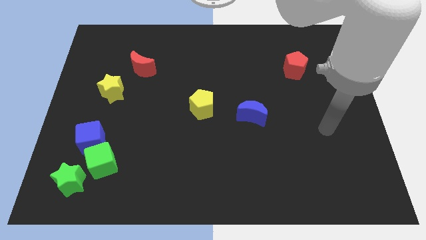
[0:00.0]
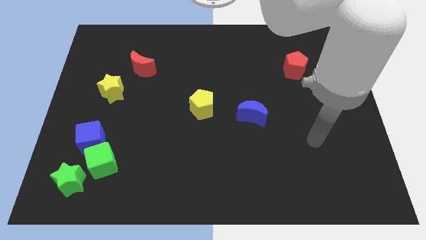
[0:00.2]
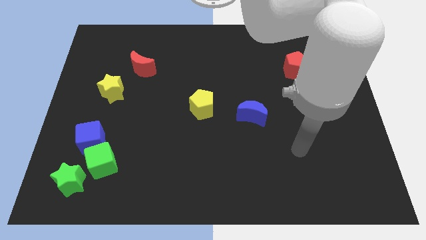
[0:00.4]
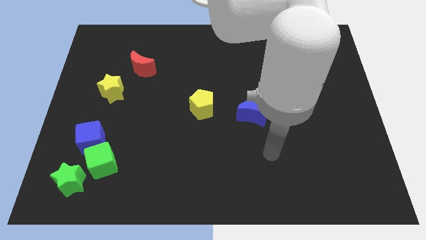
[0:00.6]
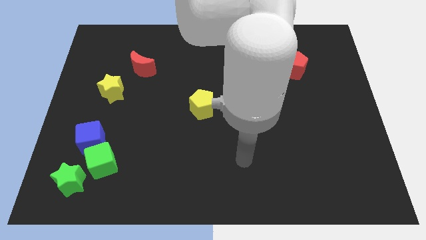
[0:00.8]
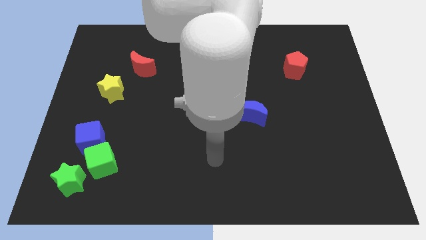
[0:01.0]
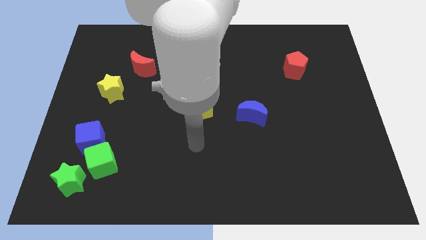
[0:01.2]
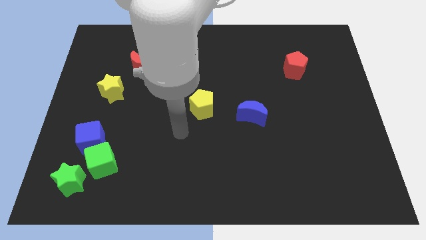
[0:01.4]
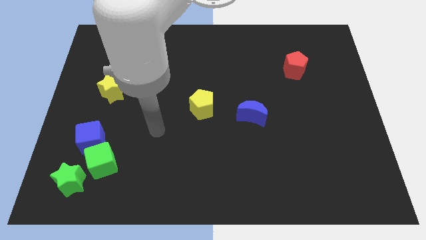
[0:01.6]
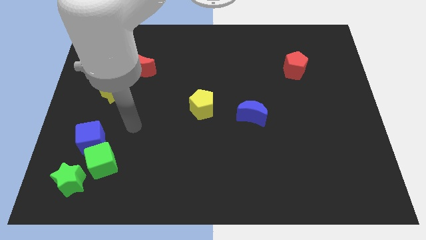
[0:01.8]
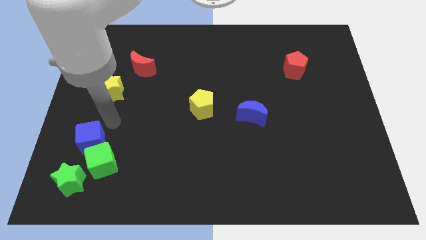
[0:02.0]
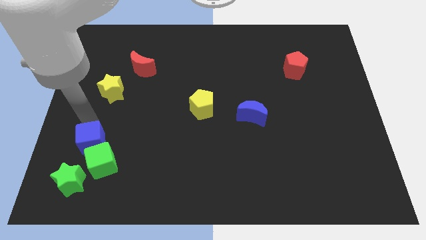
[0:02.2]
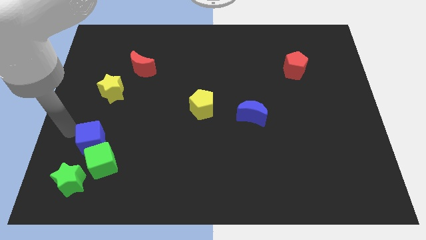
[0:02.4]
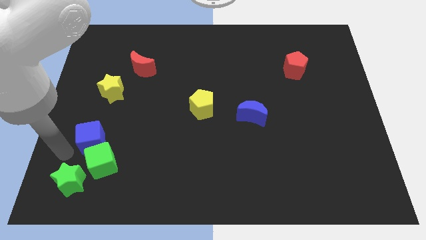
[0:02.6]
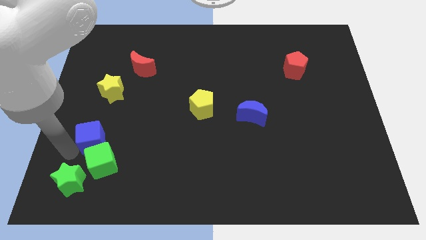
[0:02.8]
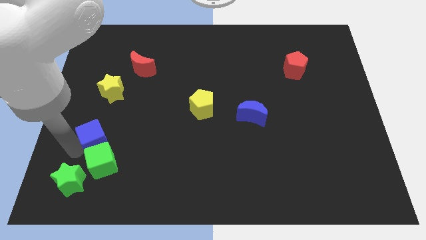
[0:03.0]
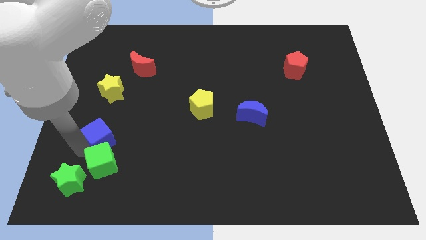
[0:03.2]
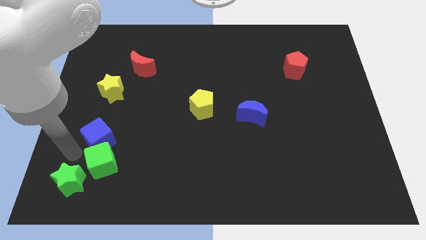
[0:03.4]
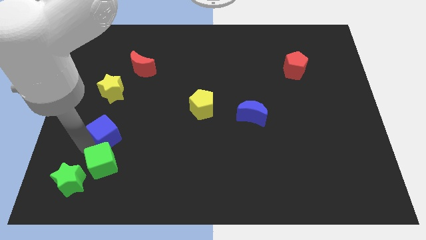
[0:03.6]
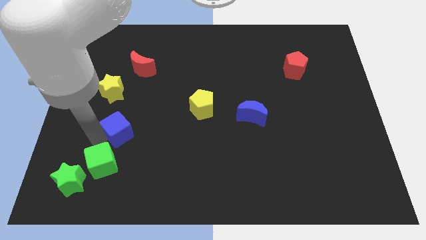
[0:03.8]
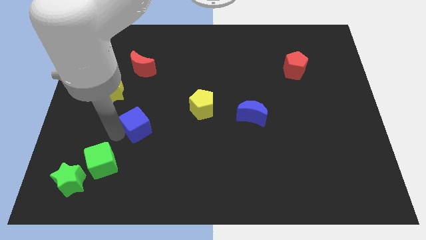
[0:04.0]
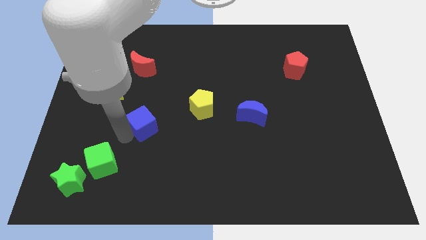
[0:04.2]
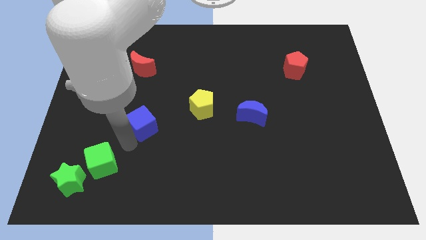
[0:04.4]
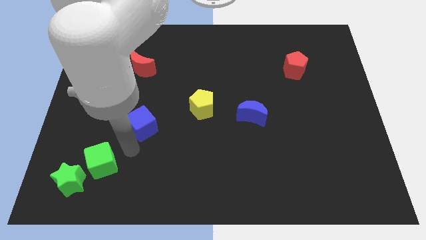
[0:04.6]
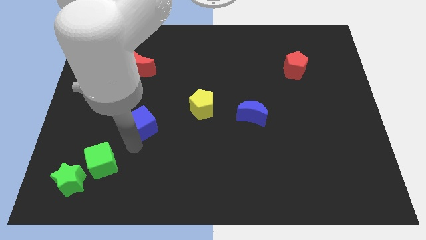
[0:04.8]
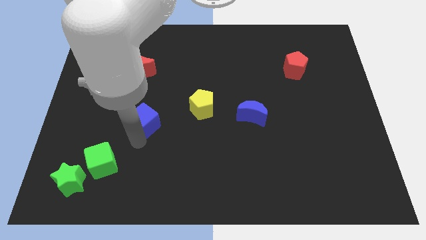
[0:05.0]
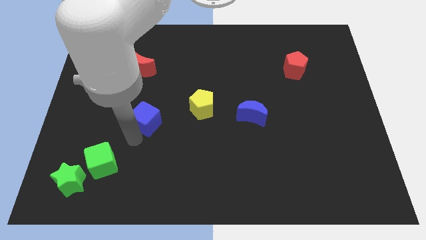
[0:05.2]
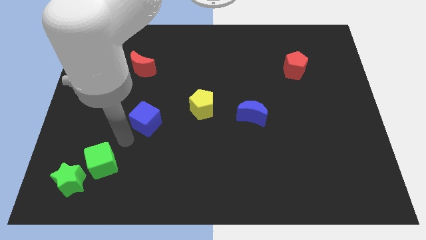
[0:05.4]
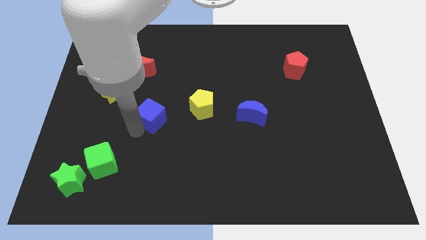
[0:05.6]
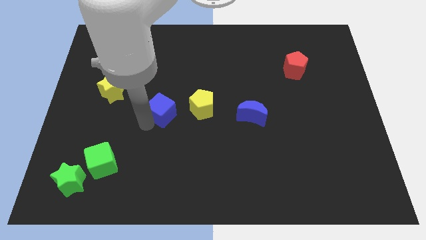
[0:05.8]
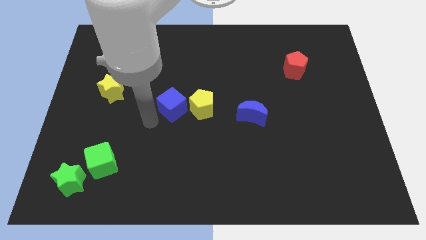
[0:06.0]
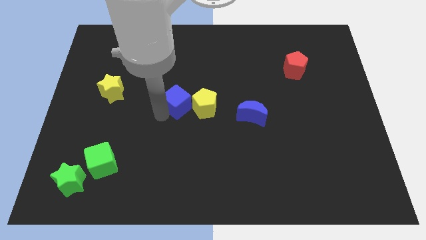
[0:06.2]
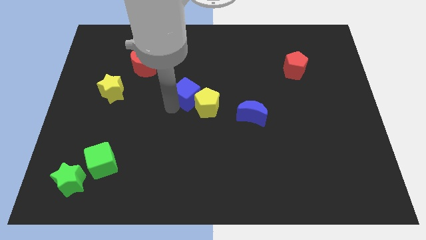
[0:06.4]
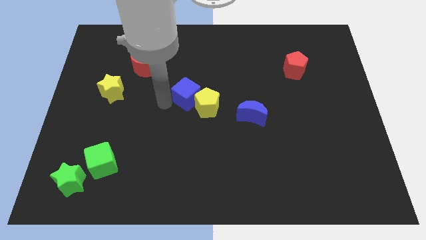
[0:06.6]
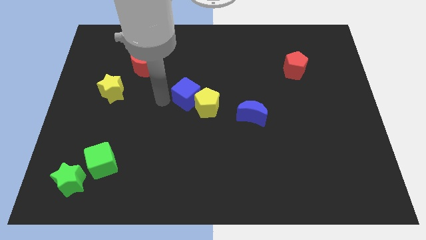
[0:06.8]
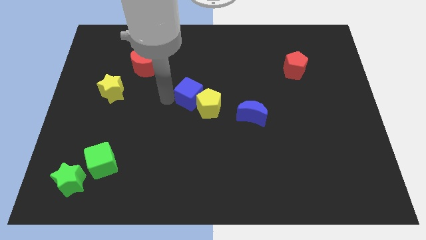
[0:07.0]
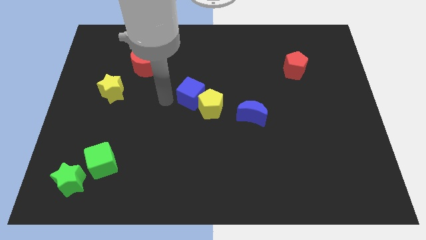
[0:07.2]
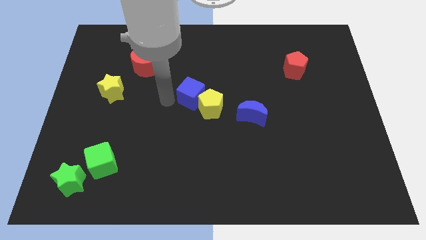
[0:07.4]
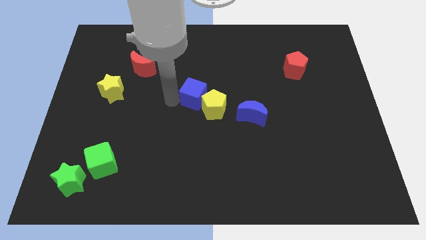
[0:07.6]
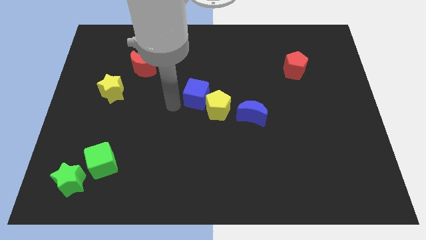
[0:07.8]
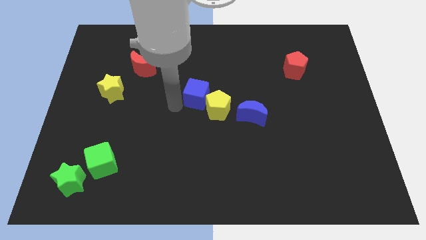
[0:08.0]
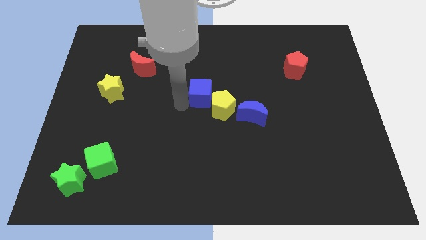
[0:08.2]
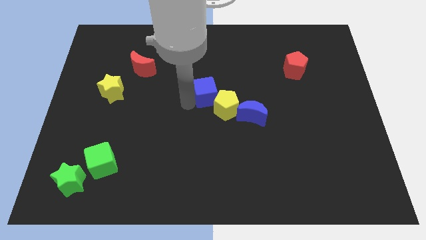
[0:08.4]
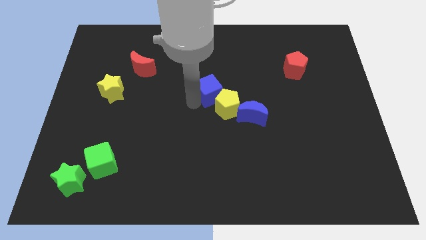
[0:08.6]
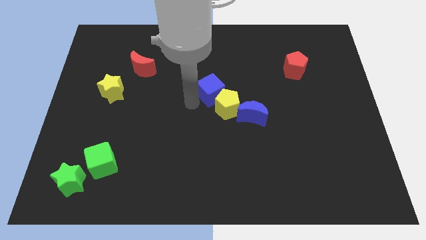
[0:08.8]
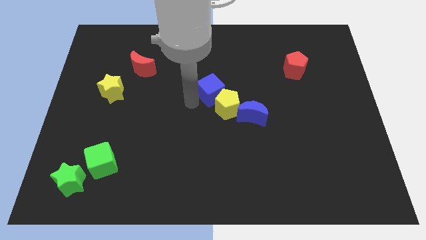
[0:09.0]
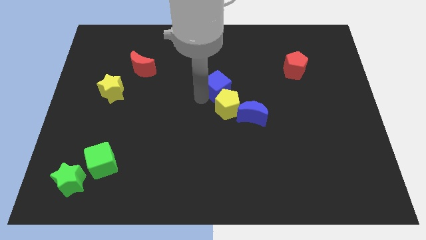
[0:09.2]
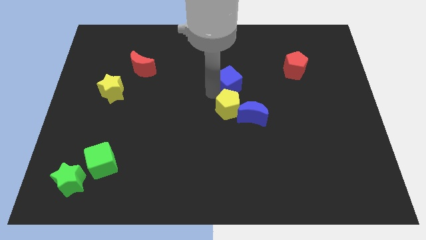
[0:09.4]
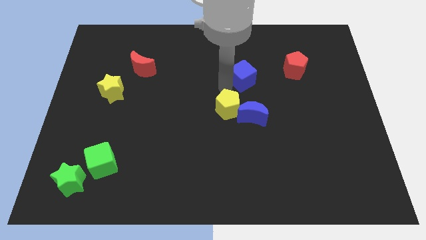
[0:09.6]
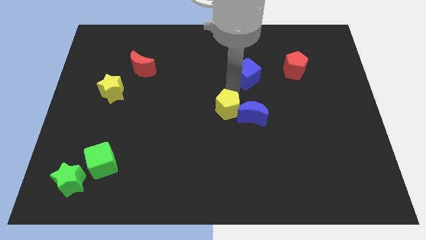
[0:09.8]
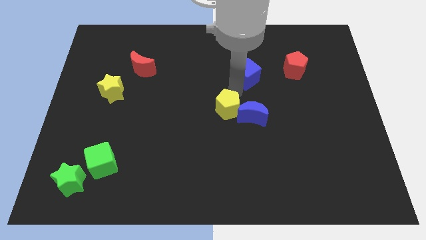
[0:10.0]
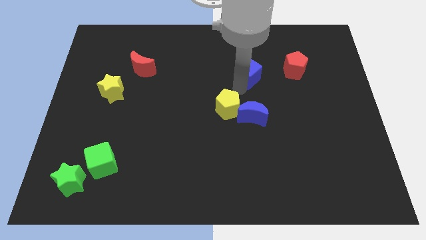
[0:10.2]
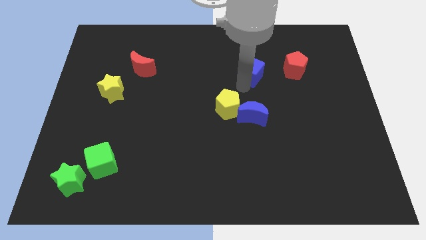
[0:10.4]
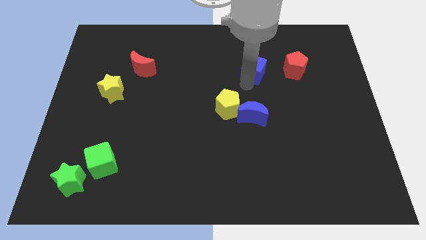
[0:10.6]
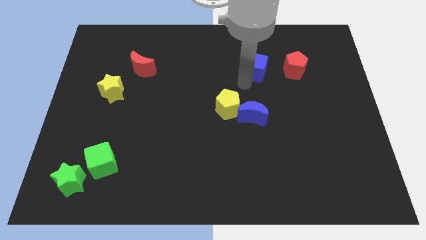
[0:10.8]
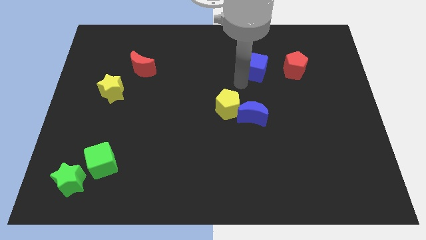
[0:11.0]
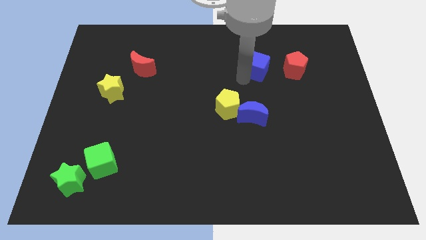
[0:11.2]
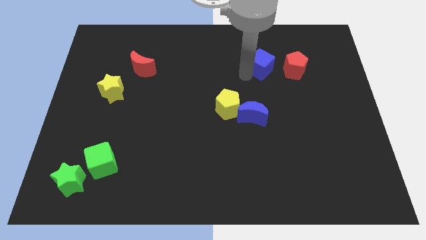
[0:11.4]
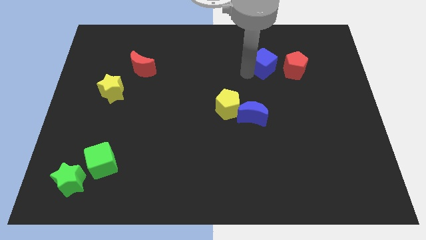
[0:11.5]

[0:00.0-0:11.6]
move the blue cube to the top left side of the red pentagon

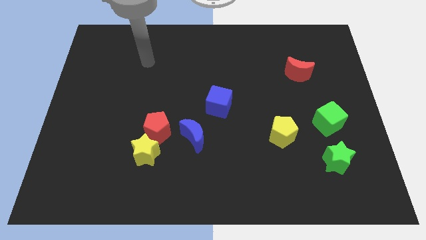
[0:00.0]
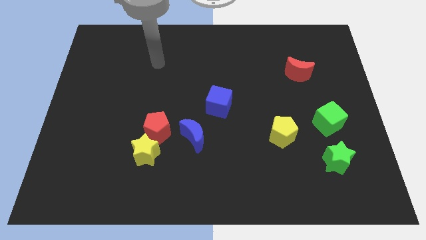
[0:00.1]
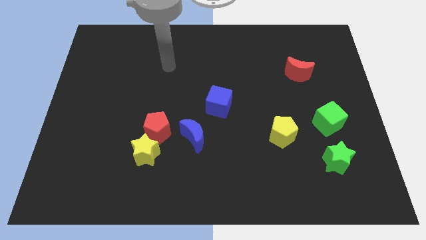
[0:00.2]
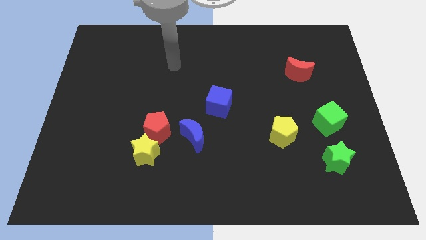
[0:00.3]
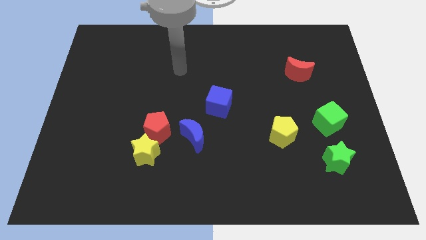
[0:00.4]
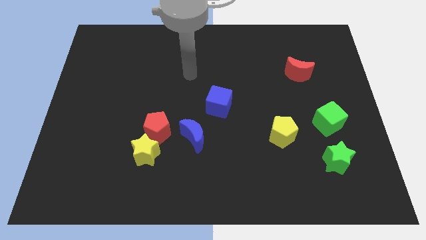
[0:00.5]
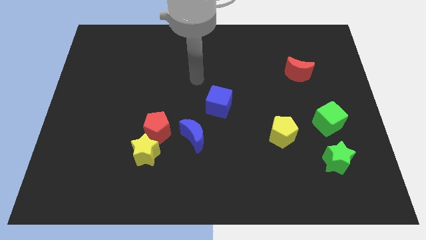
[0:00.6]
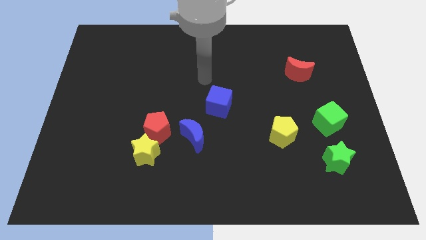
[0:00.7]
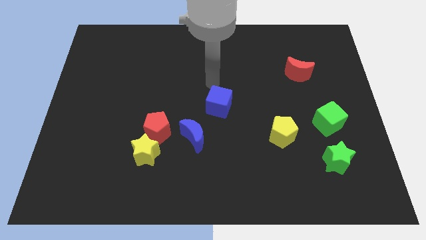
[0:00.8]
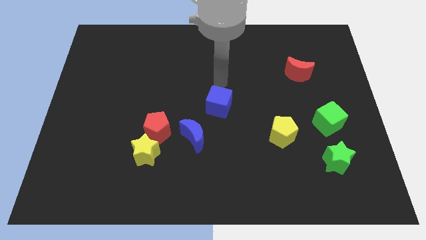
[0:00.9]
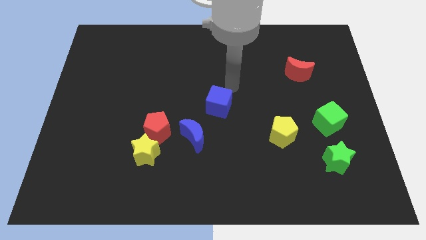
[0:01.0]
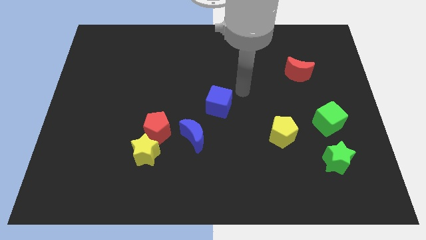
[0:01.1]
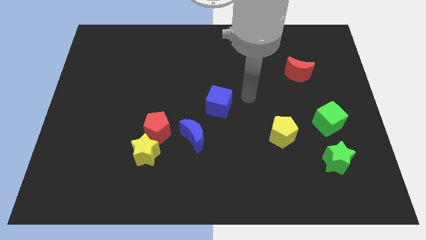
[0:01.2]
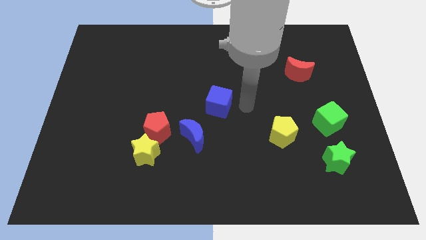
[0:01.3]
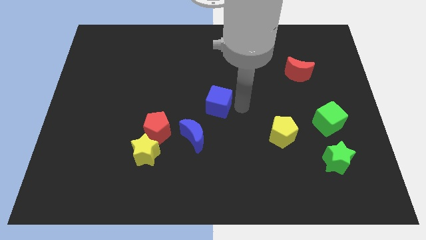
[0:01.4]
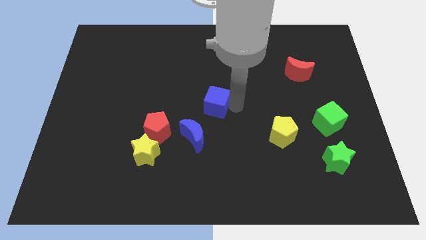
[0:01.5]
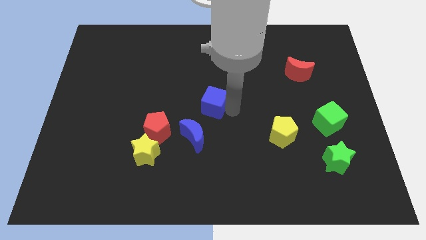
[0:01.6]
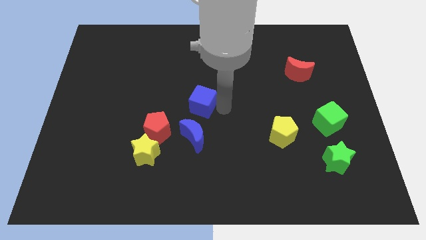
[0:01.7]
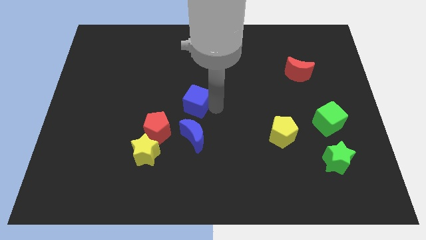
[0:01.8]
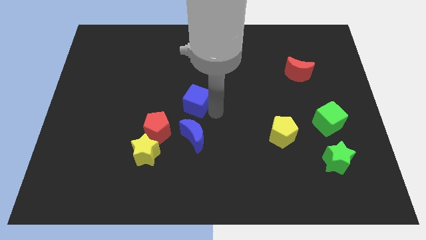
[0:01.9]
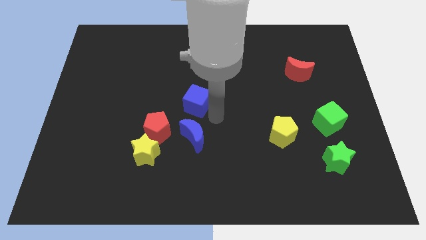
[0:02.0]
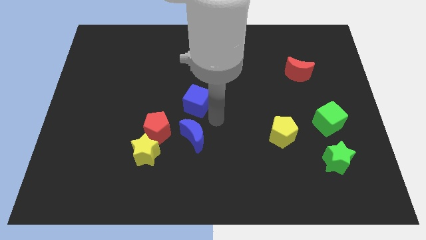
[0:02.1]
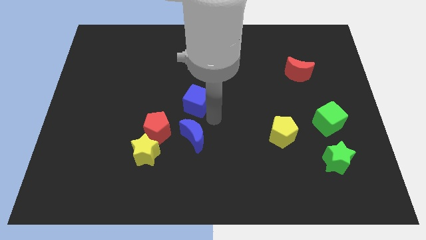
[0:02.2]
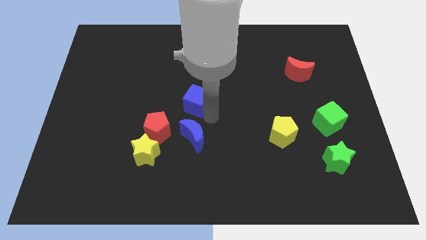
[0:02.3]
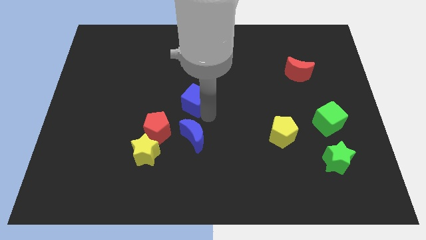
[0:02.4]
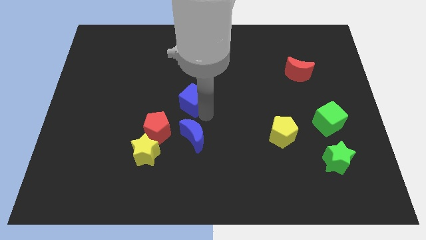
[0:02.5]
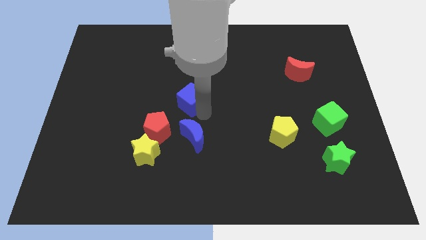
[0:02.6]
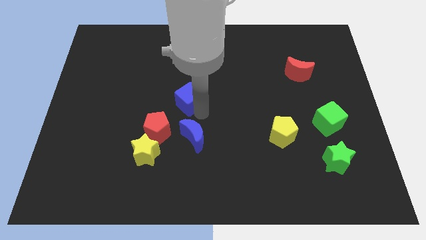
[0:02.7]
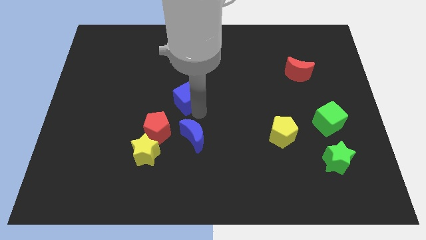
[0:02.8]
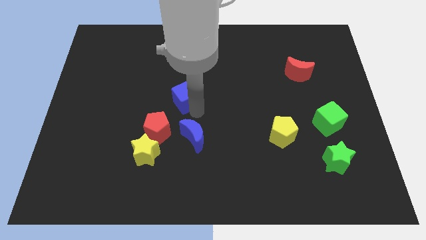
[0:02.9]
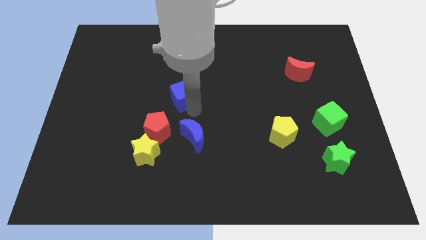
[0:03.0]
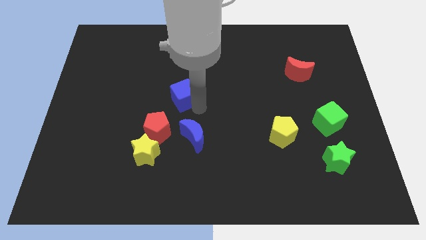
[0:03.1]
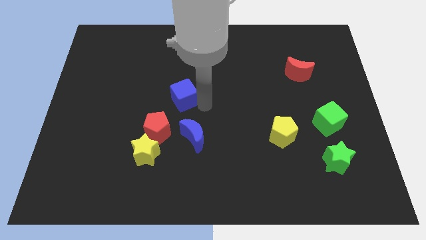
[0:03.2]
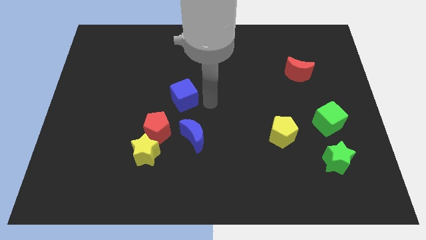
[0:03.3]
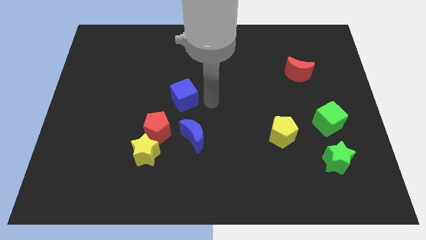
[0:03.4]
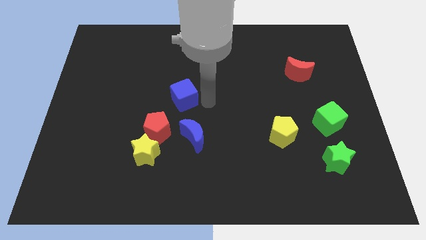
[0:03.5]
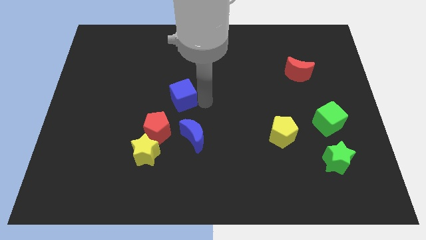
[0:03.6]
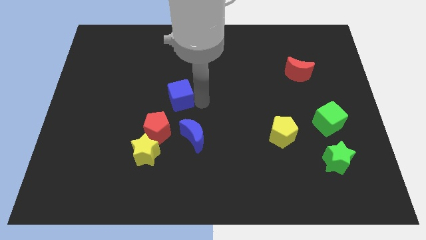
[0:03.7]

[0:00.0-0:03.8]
push the blue cube to the top side of the red pentagon
